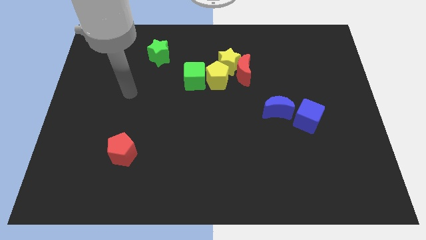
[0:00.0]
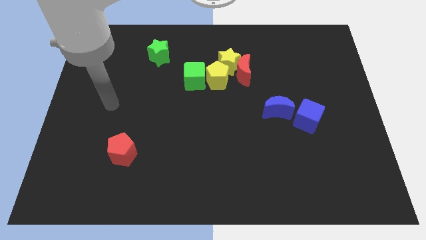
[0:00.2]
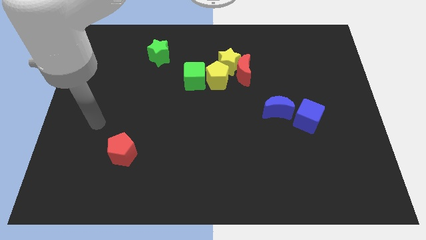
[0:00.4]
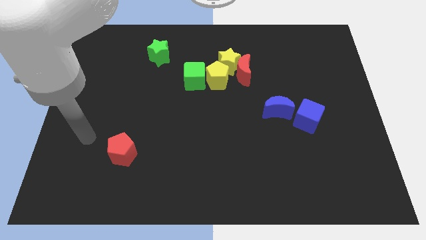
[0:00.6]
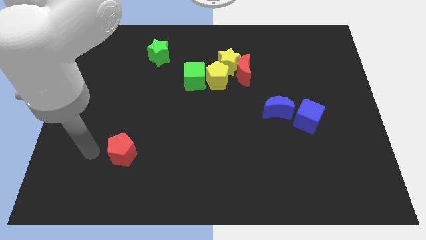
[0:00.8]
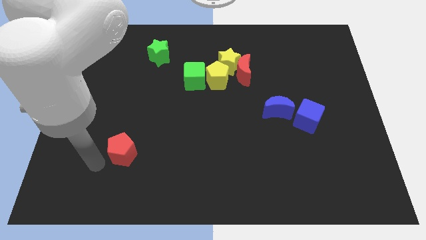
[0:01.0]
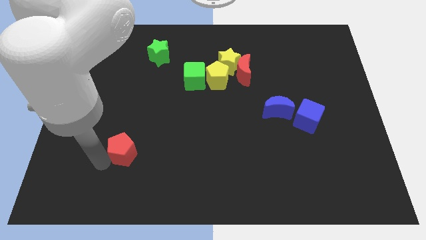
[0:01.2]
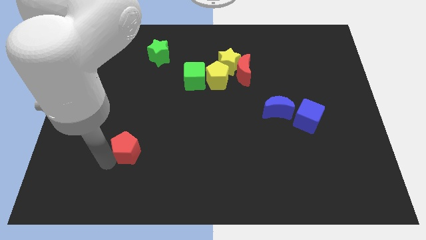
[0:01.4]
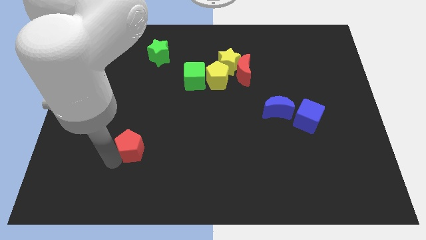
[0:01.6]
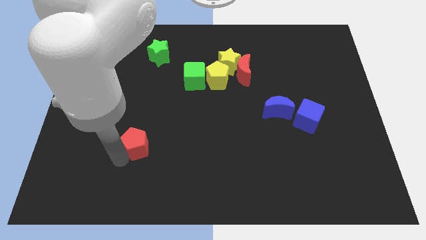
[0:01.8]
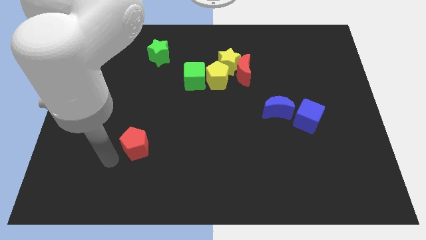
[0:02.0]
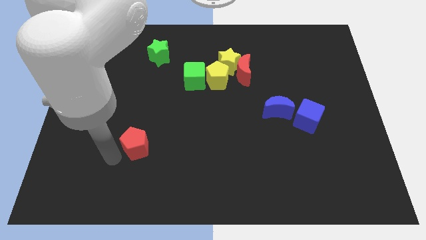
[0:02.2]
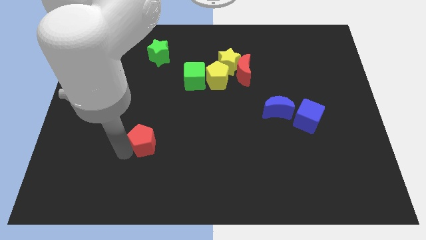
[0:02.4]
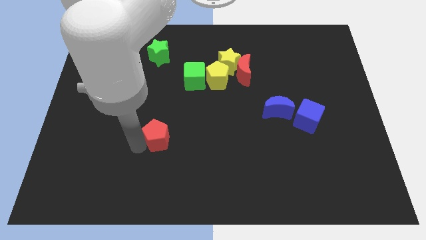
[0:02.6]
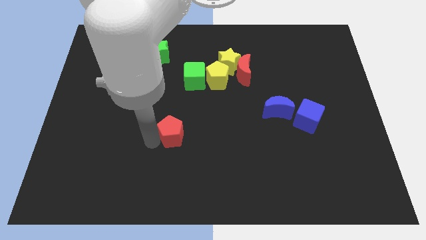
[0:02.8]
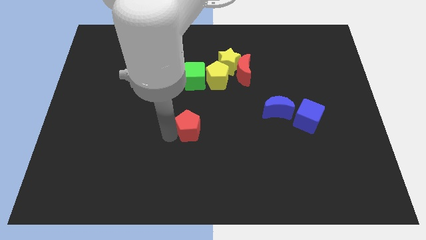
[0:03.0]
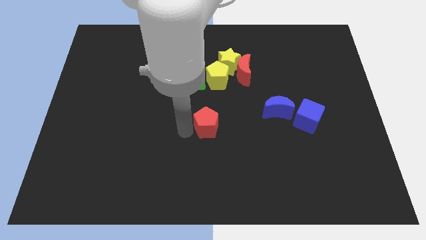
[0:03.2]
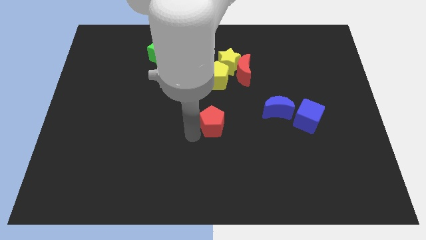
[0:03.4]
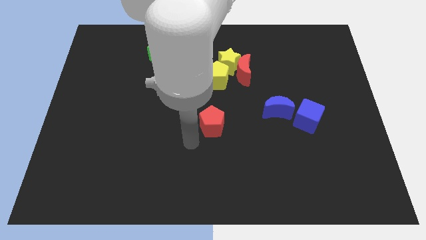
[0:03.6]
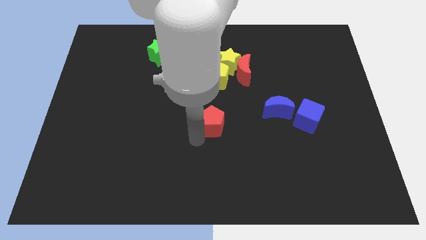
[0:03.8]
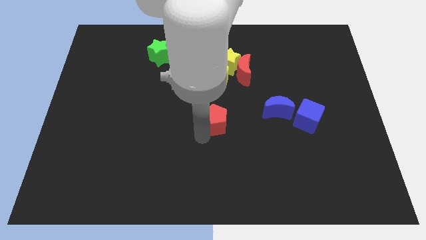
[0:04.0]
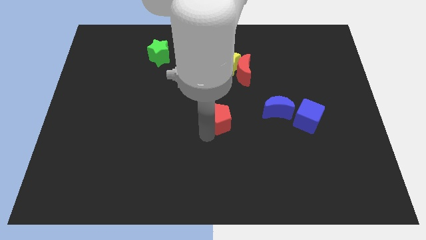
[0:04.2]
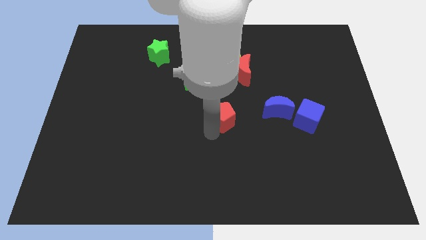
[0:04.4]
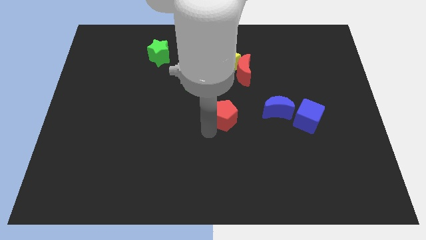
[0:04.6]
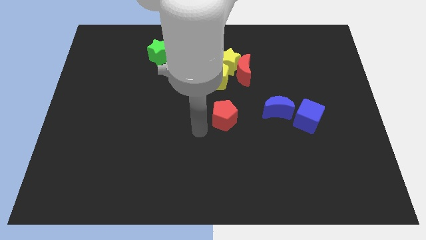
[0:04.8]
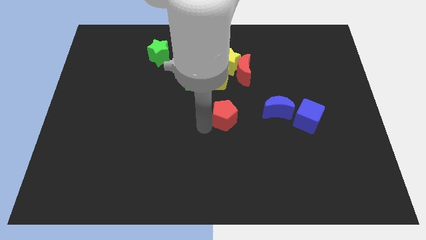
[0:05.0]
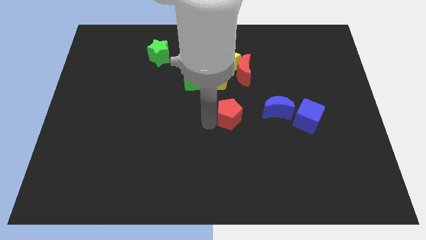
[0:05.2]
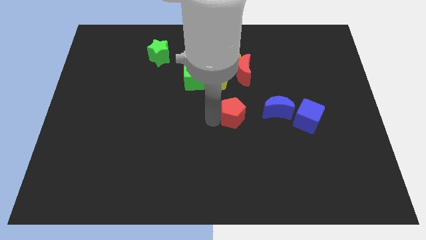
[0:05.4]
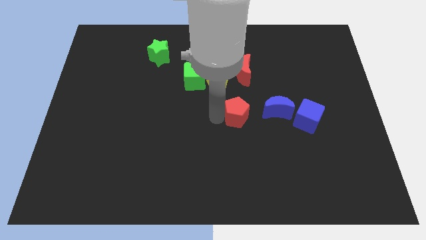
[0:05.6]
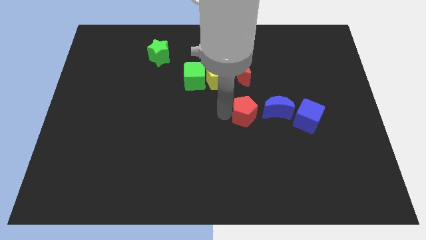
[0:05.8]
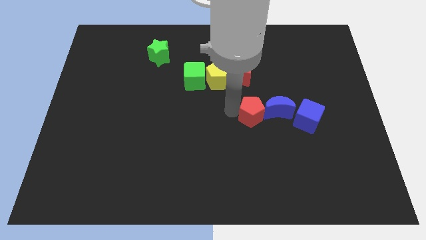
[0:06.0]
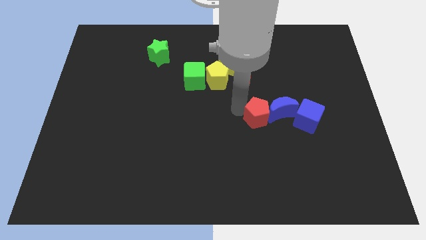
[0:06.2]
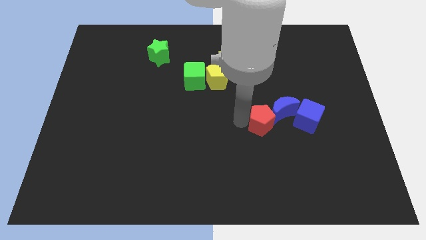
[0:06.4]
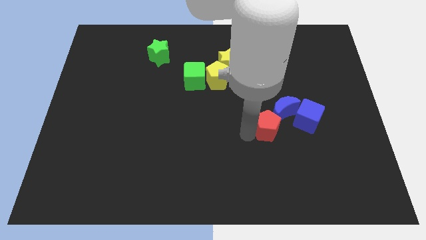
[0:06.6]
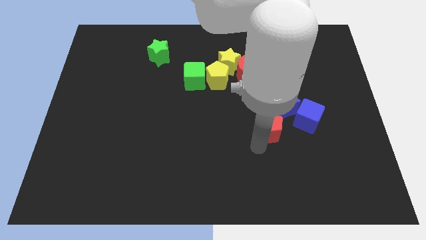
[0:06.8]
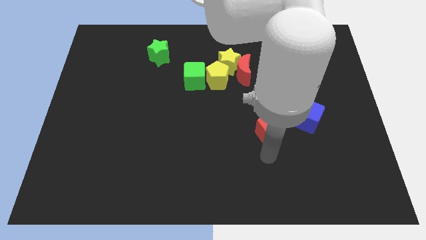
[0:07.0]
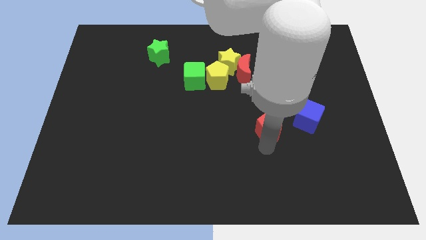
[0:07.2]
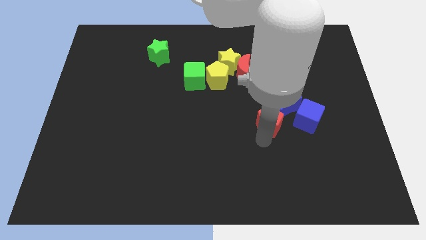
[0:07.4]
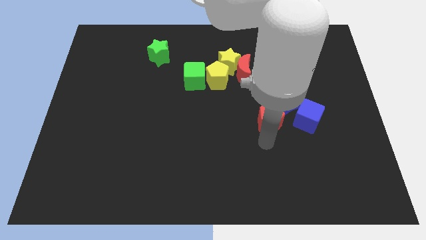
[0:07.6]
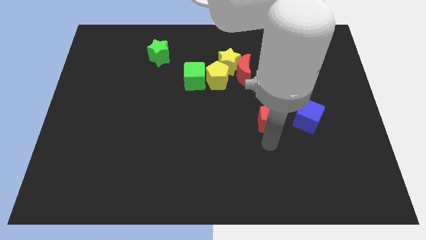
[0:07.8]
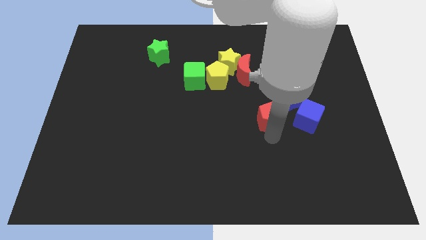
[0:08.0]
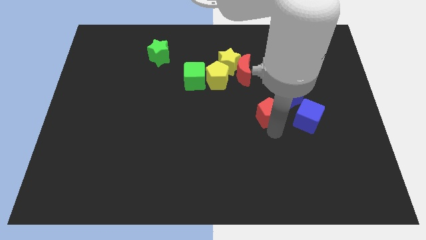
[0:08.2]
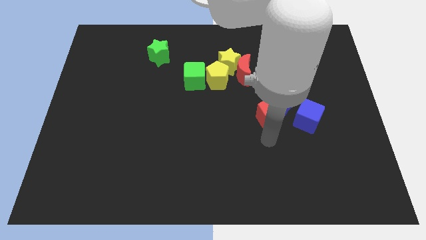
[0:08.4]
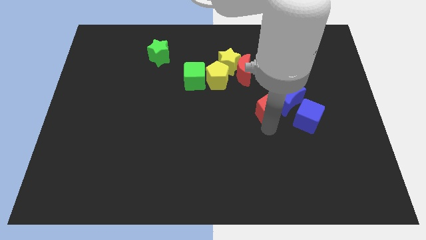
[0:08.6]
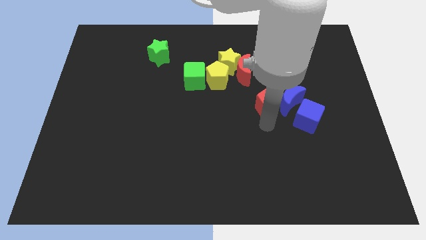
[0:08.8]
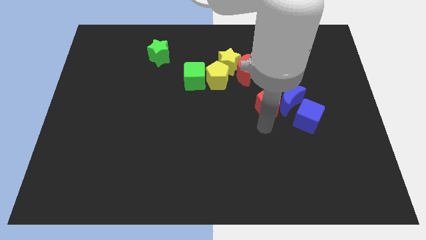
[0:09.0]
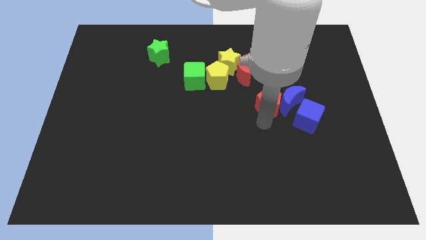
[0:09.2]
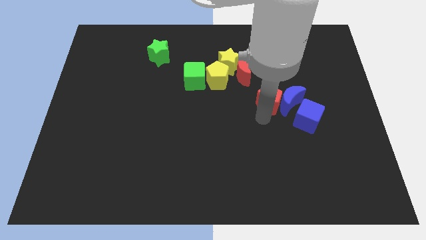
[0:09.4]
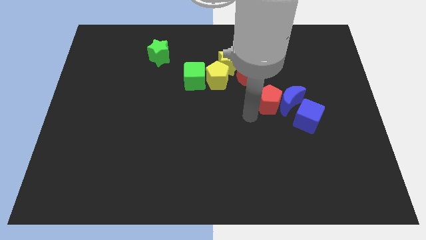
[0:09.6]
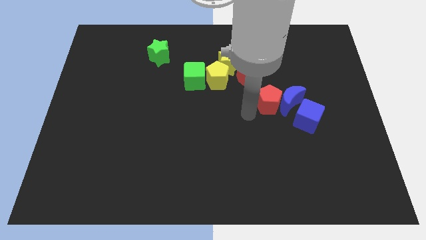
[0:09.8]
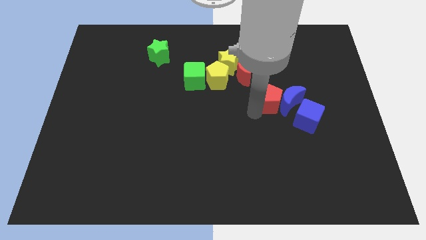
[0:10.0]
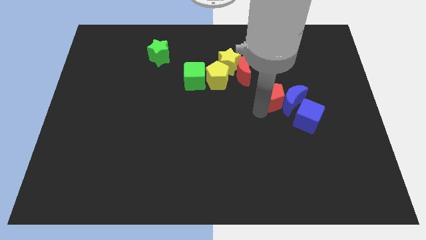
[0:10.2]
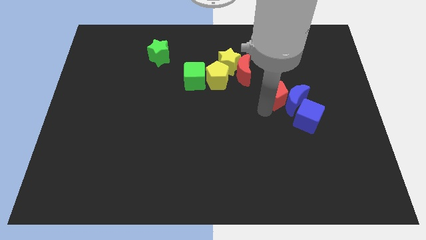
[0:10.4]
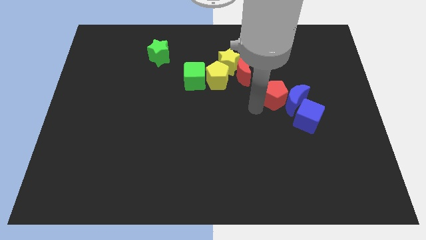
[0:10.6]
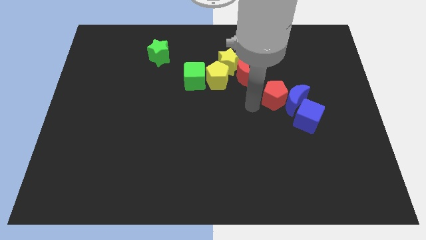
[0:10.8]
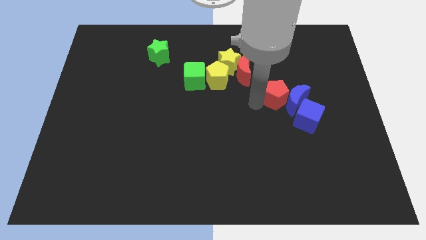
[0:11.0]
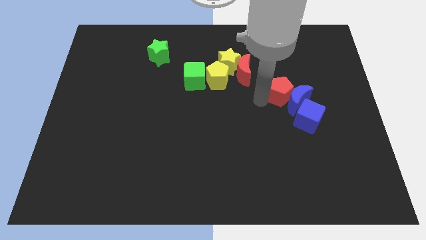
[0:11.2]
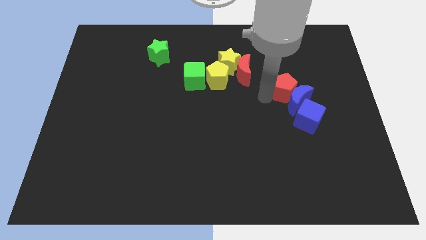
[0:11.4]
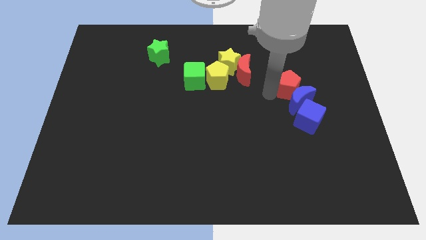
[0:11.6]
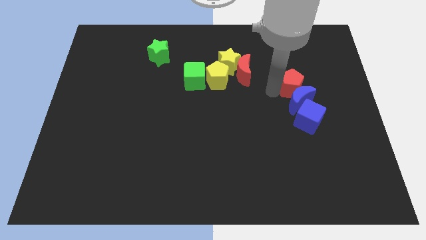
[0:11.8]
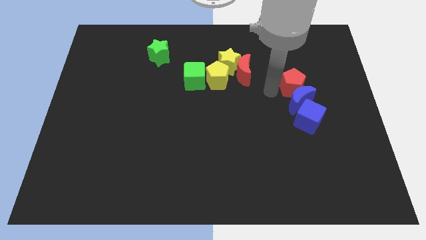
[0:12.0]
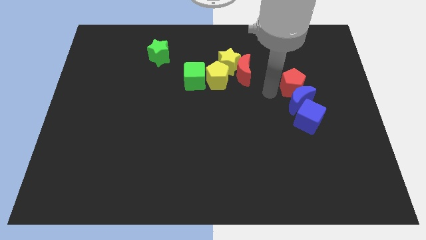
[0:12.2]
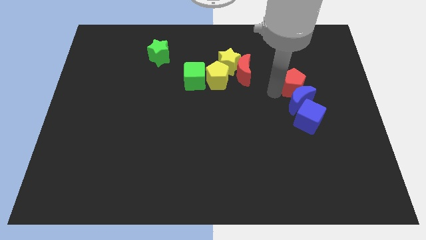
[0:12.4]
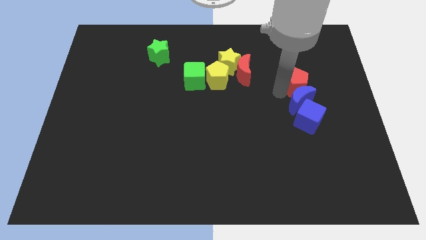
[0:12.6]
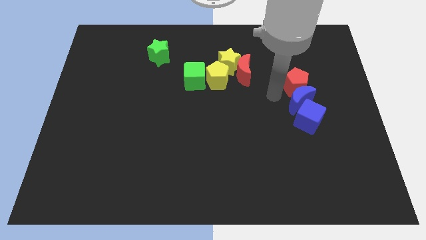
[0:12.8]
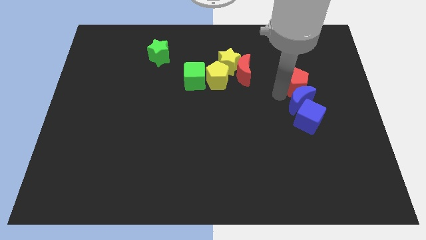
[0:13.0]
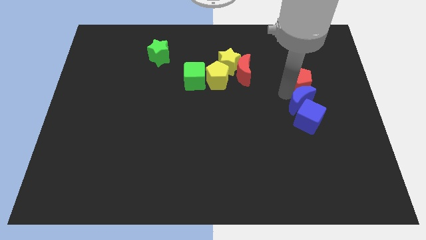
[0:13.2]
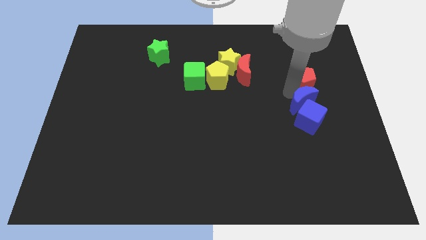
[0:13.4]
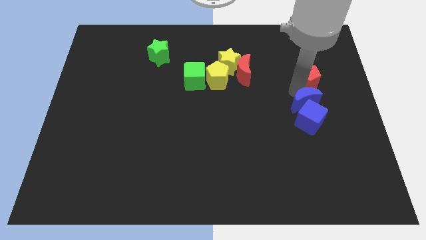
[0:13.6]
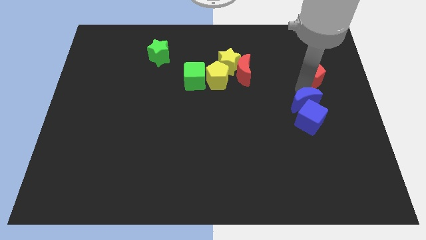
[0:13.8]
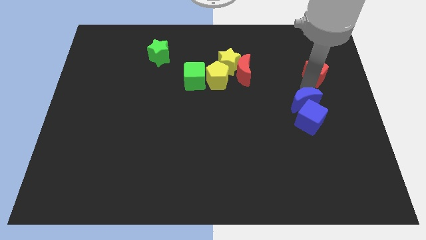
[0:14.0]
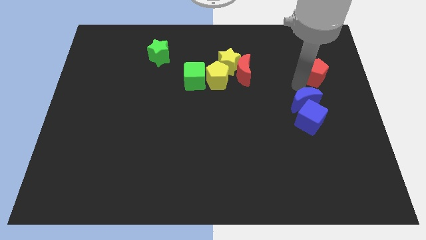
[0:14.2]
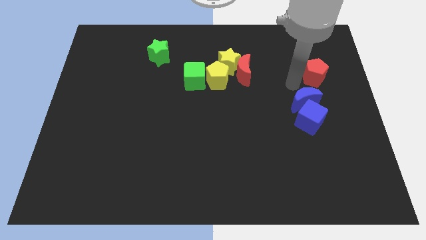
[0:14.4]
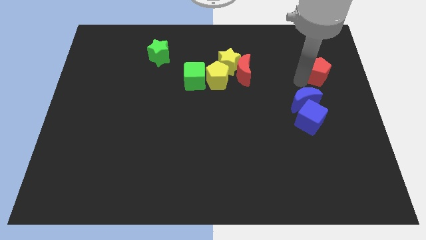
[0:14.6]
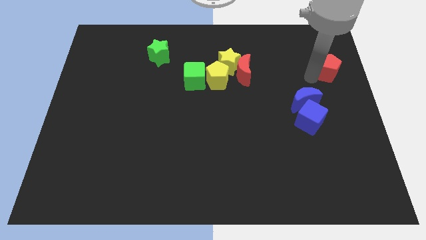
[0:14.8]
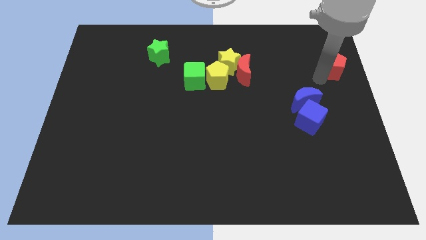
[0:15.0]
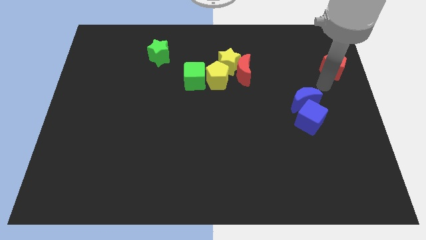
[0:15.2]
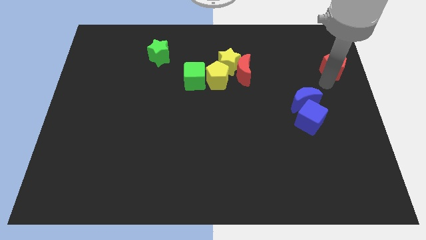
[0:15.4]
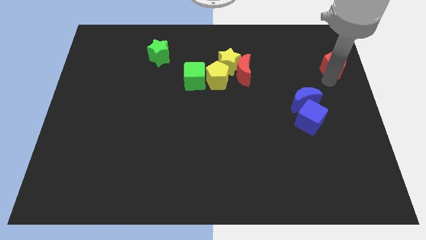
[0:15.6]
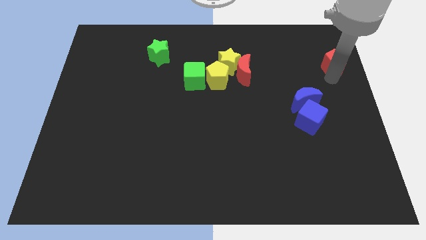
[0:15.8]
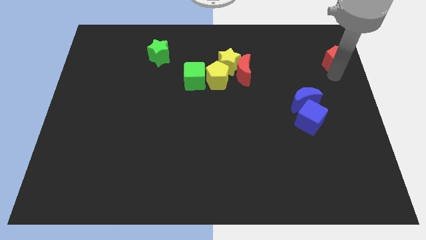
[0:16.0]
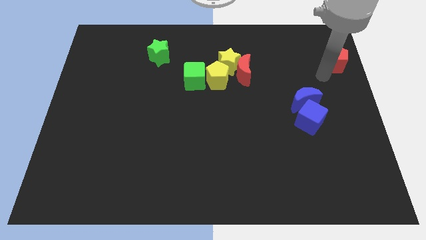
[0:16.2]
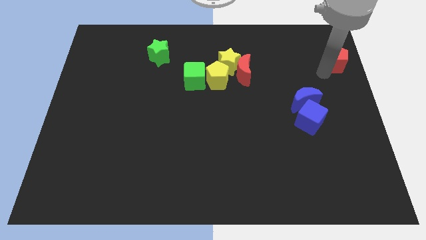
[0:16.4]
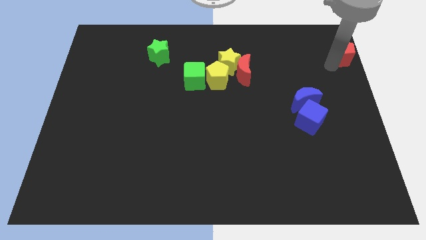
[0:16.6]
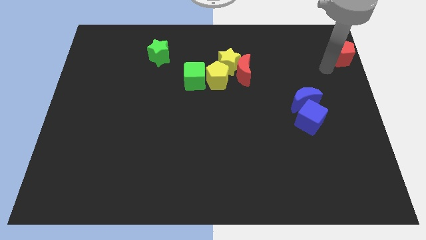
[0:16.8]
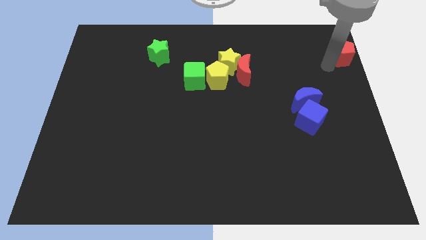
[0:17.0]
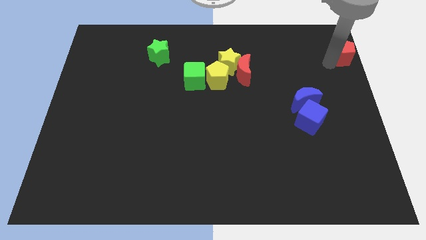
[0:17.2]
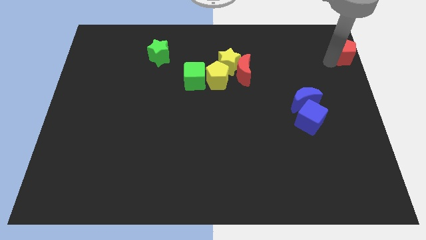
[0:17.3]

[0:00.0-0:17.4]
push the red pentagon to the top right
